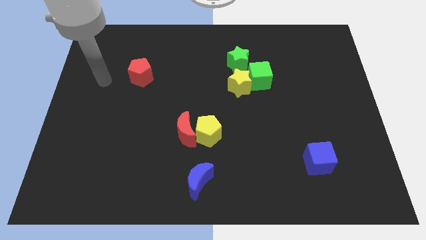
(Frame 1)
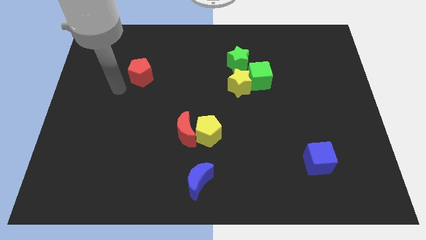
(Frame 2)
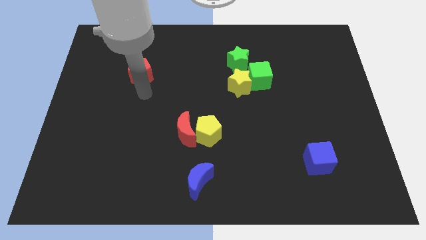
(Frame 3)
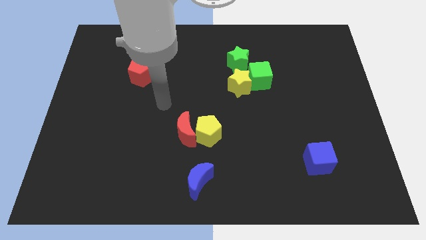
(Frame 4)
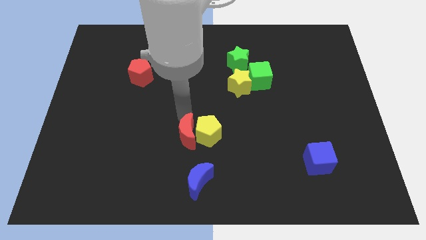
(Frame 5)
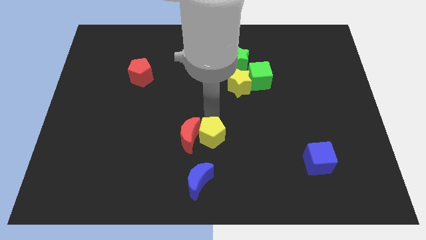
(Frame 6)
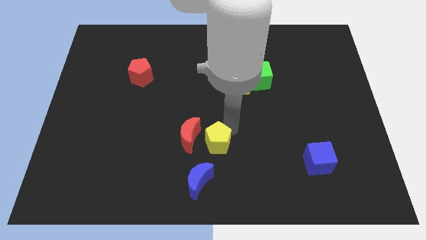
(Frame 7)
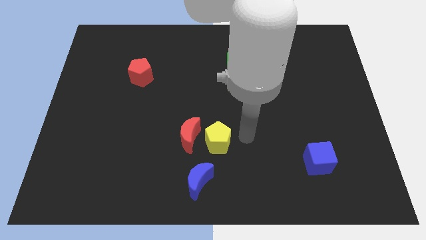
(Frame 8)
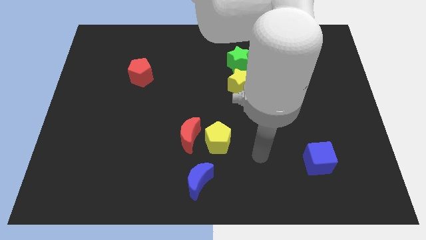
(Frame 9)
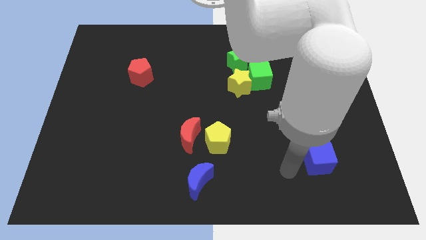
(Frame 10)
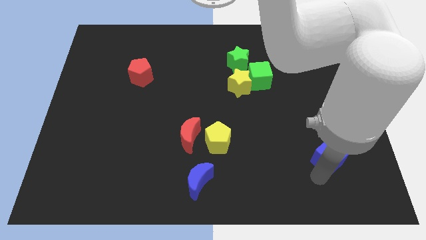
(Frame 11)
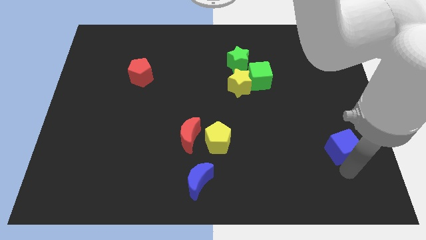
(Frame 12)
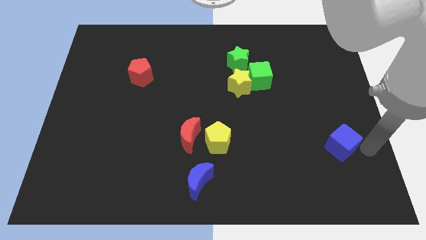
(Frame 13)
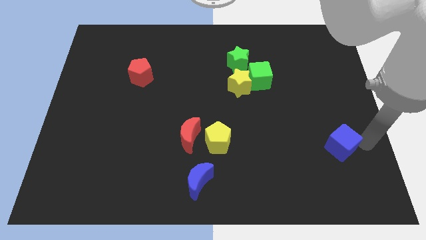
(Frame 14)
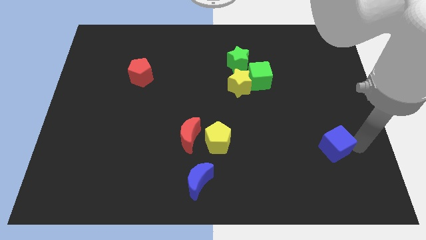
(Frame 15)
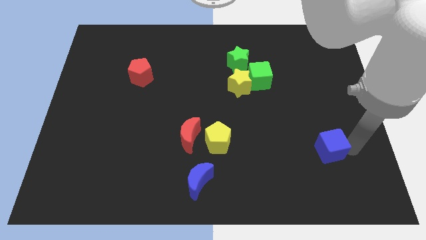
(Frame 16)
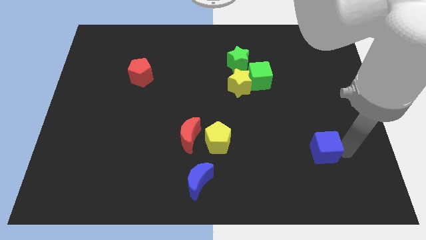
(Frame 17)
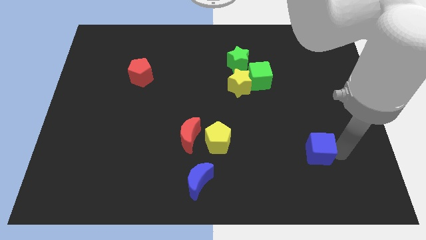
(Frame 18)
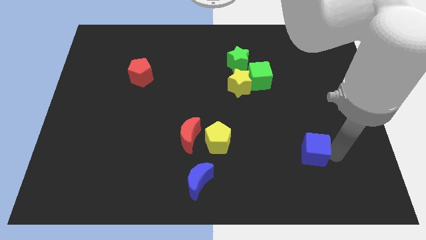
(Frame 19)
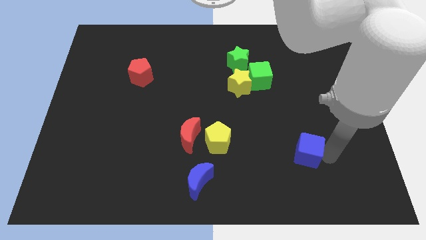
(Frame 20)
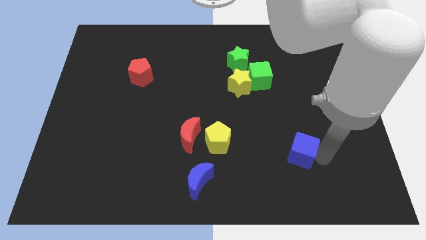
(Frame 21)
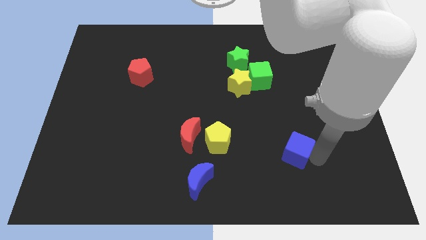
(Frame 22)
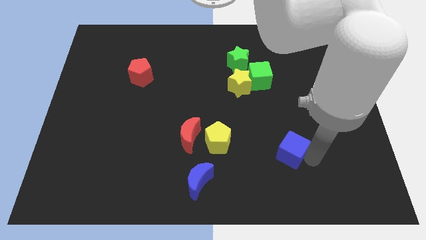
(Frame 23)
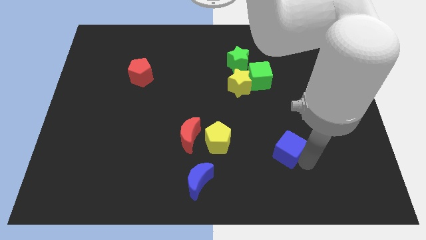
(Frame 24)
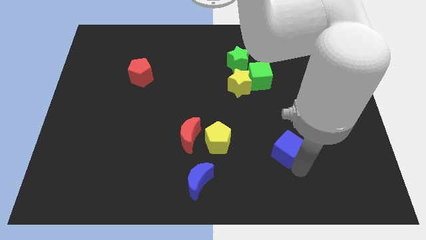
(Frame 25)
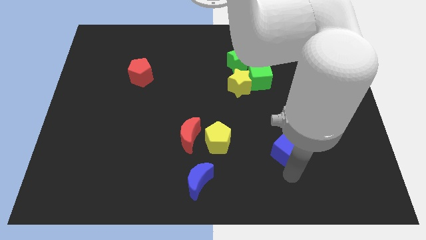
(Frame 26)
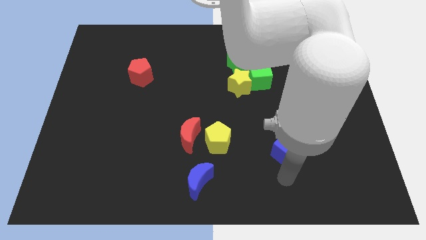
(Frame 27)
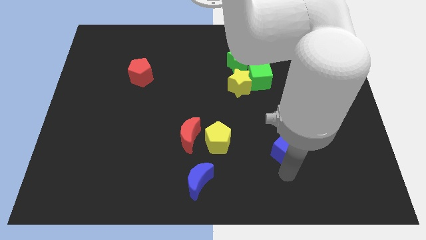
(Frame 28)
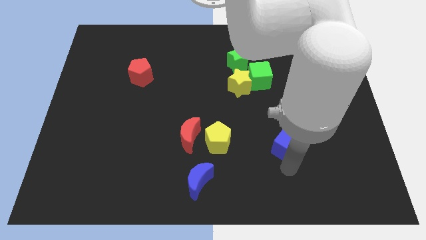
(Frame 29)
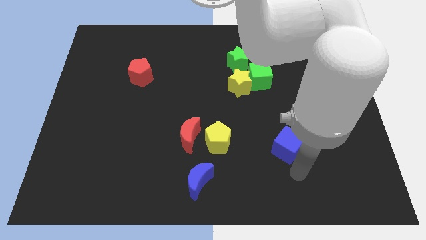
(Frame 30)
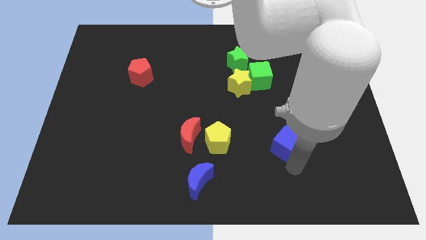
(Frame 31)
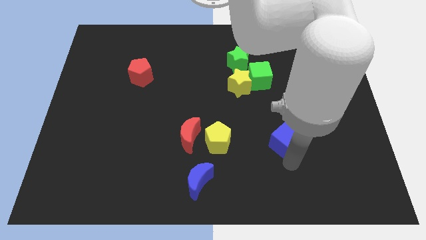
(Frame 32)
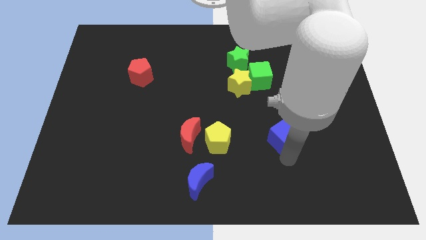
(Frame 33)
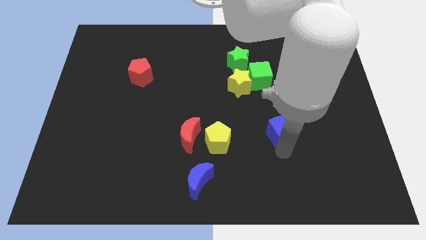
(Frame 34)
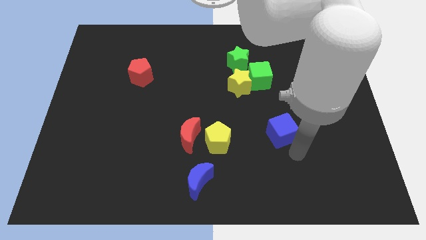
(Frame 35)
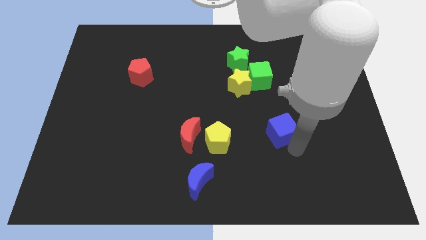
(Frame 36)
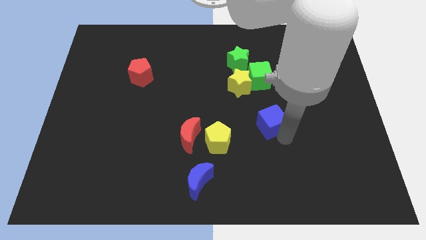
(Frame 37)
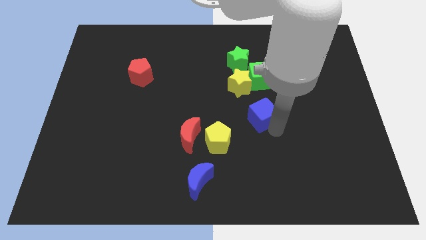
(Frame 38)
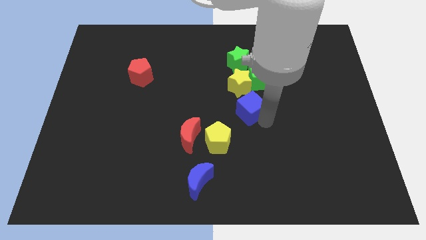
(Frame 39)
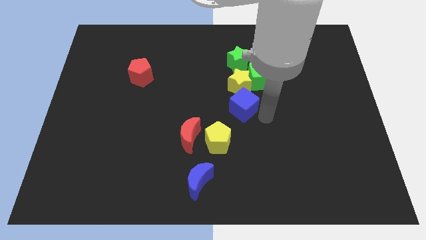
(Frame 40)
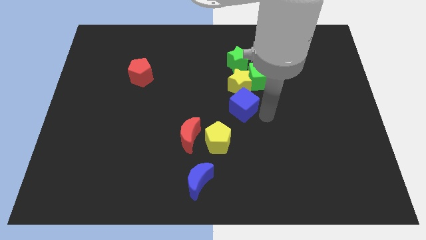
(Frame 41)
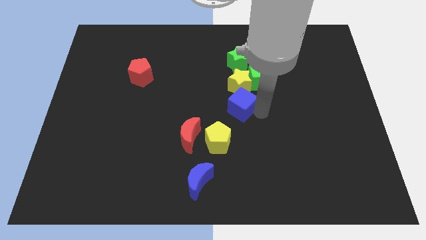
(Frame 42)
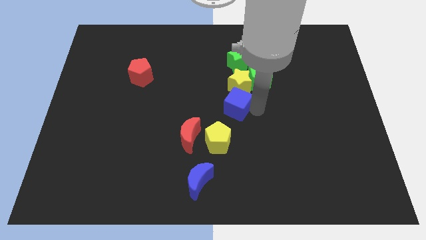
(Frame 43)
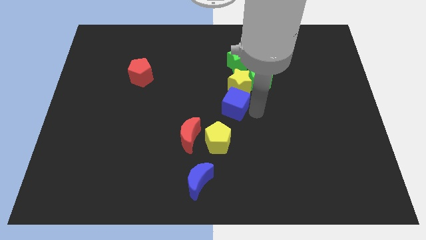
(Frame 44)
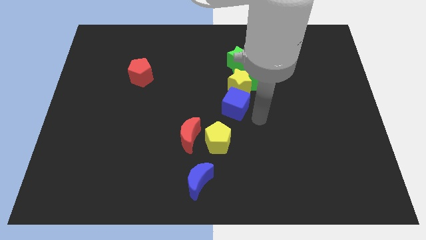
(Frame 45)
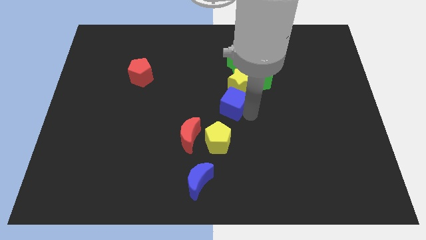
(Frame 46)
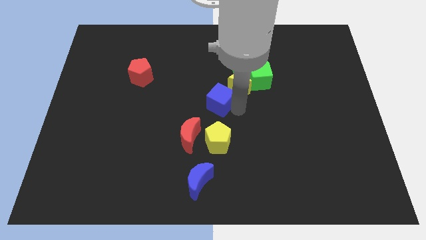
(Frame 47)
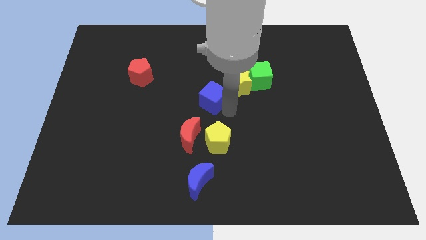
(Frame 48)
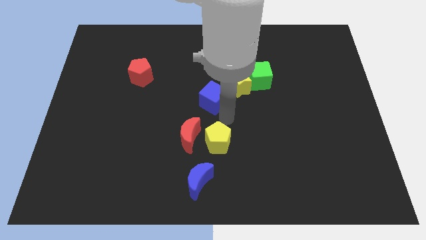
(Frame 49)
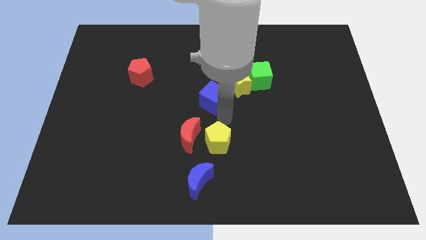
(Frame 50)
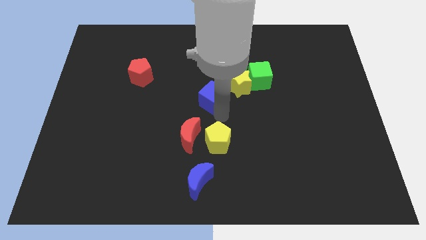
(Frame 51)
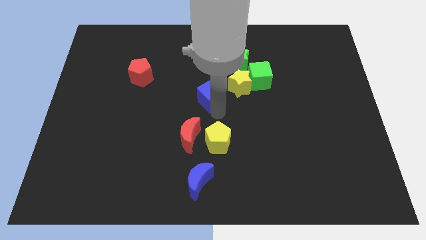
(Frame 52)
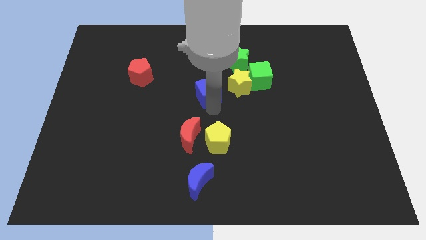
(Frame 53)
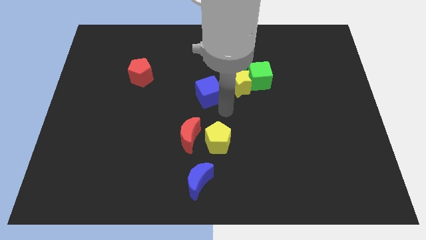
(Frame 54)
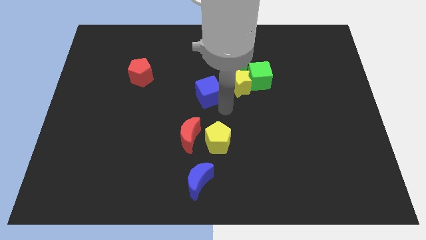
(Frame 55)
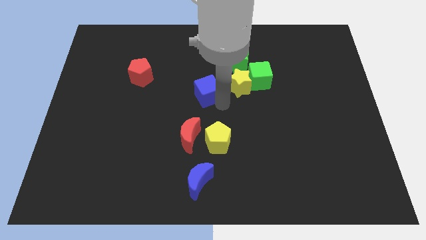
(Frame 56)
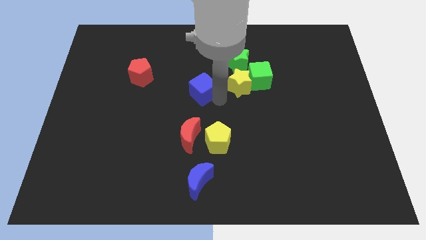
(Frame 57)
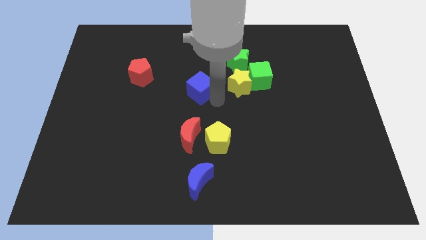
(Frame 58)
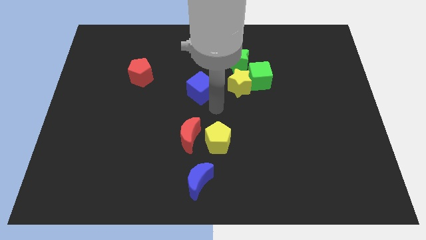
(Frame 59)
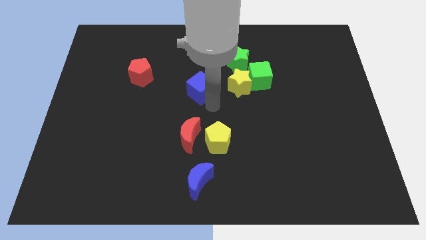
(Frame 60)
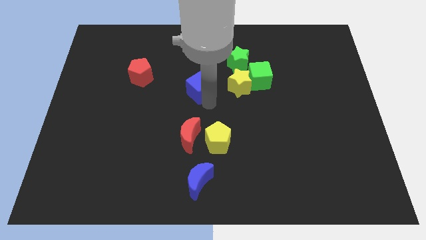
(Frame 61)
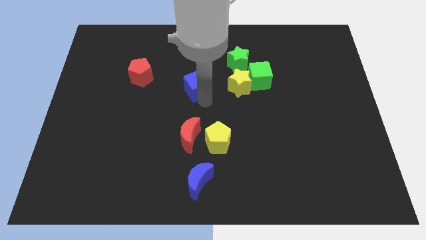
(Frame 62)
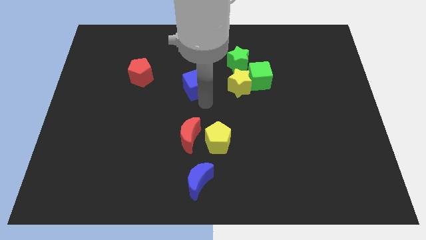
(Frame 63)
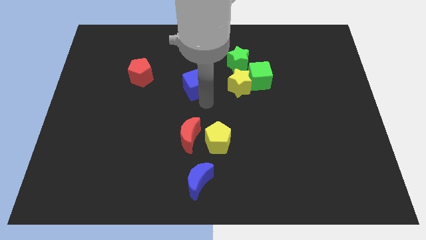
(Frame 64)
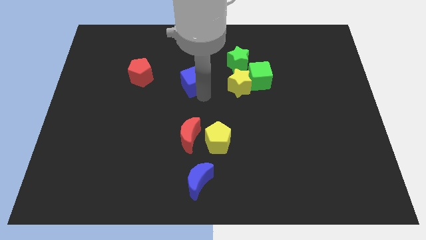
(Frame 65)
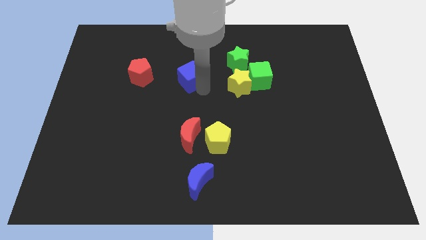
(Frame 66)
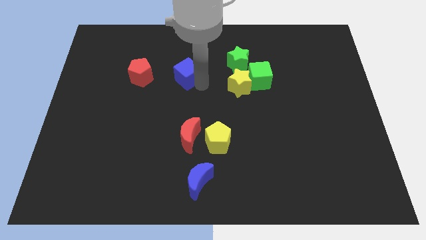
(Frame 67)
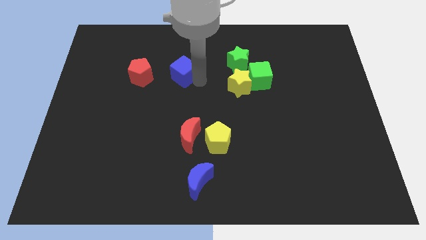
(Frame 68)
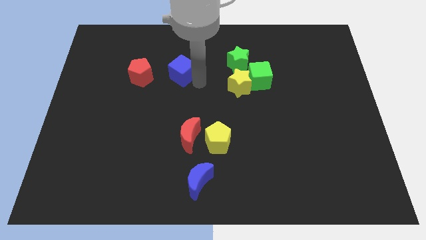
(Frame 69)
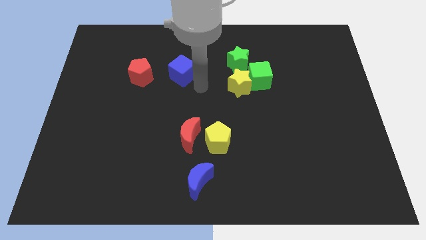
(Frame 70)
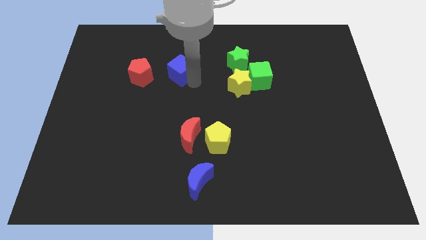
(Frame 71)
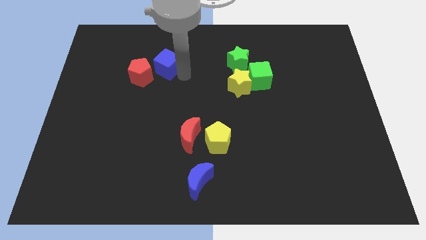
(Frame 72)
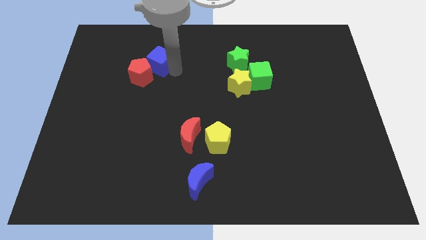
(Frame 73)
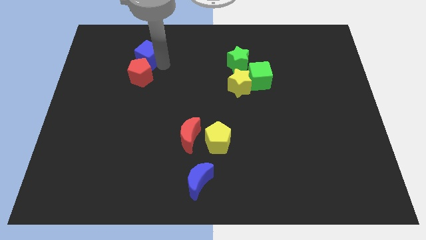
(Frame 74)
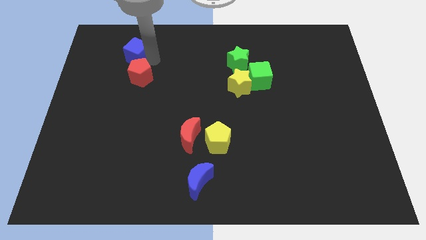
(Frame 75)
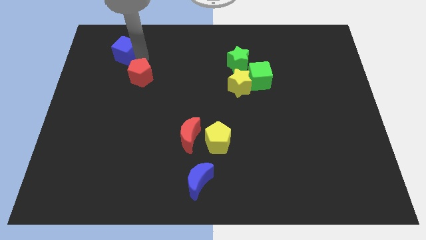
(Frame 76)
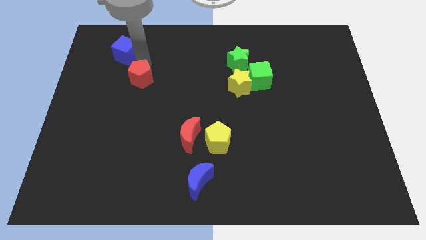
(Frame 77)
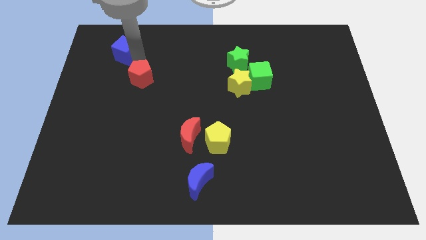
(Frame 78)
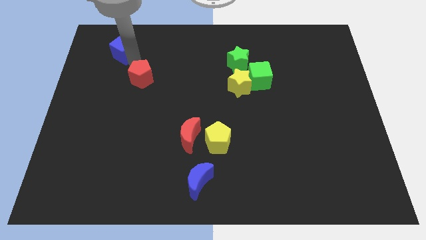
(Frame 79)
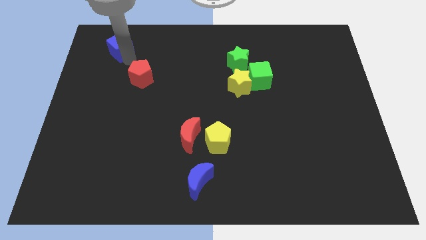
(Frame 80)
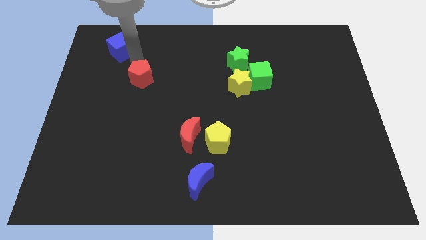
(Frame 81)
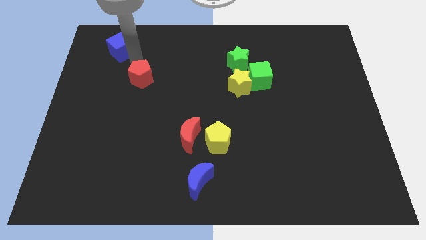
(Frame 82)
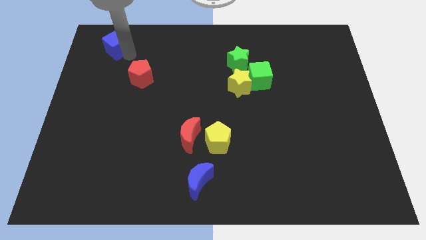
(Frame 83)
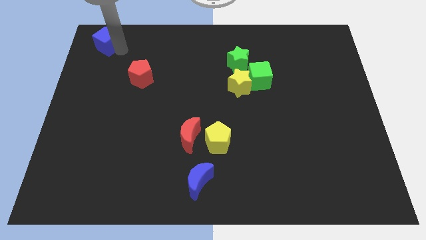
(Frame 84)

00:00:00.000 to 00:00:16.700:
slide the blue cube to the upper left corner
